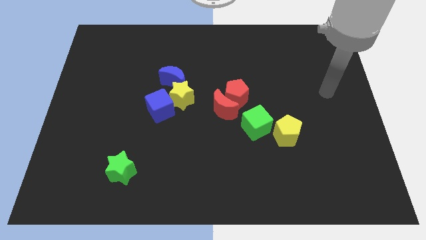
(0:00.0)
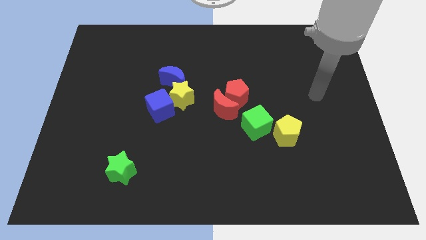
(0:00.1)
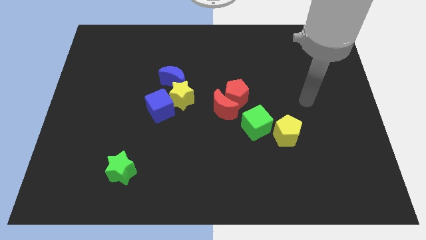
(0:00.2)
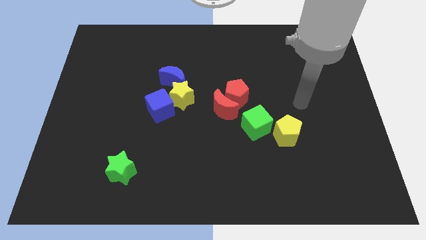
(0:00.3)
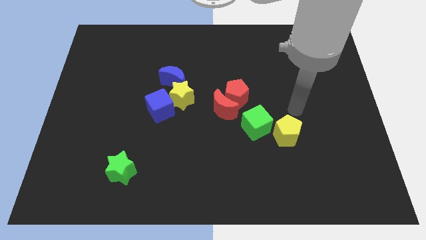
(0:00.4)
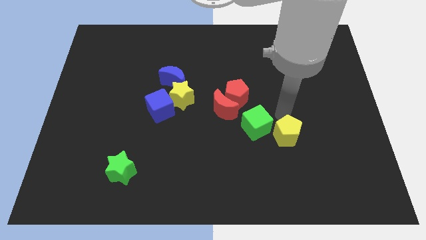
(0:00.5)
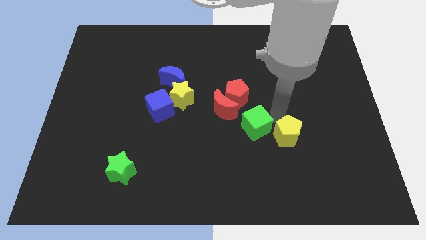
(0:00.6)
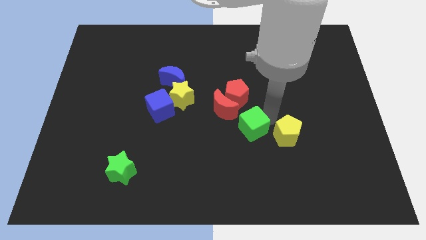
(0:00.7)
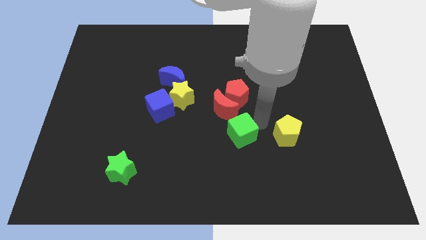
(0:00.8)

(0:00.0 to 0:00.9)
pull the yellow pentagon apart from the green cube

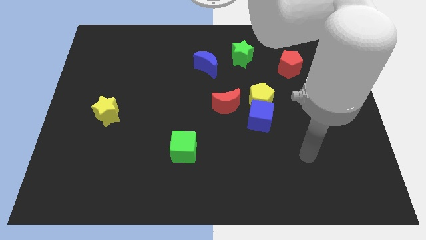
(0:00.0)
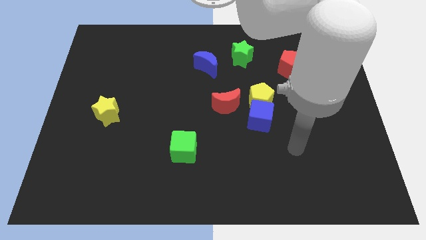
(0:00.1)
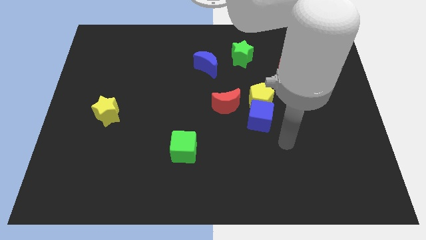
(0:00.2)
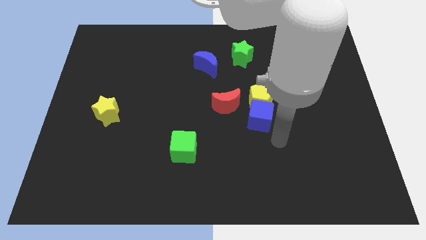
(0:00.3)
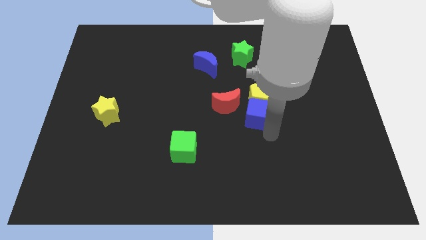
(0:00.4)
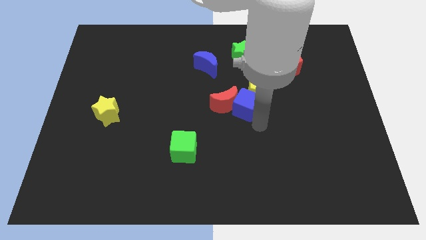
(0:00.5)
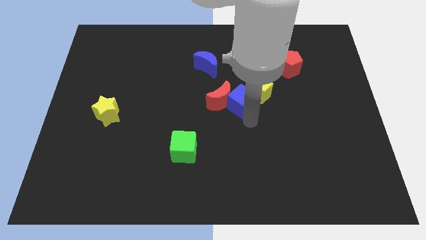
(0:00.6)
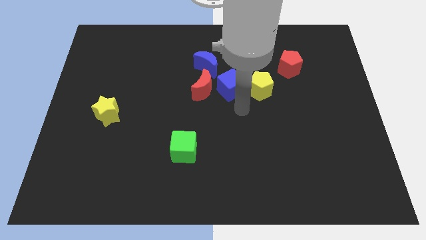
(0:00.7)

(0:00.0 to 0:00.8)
separate the yellow pentagon from the blue cube and red moon

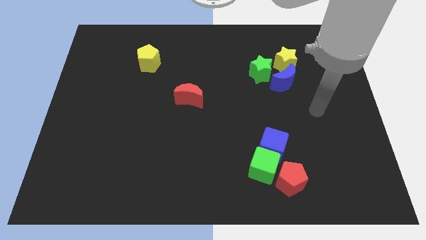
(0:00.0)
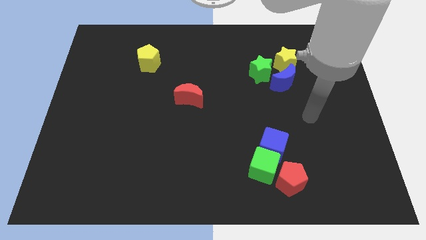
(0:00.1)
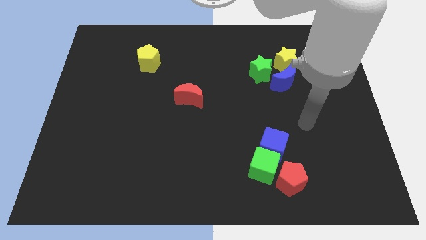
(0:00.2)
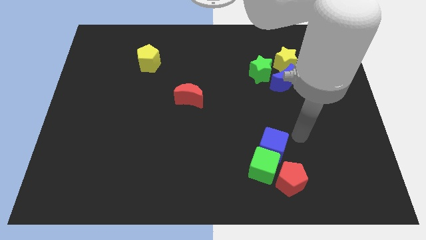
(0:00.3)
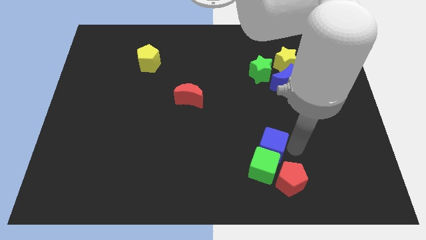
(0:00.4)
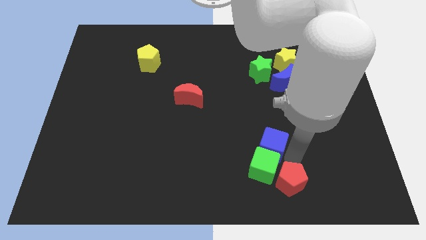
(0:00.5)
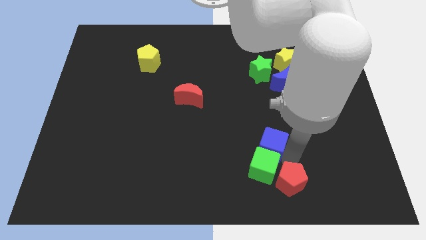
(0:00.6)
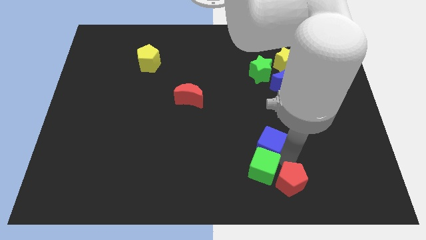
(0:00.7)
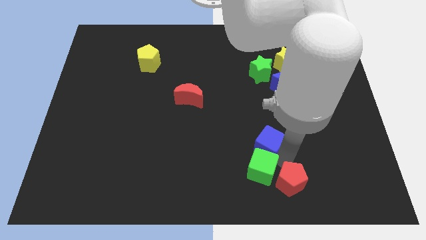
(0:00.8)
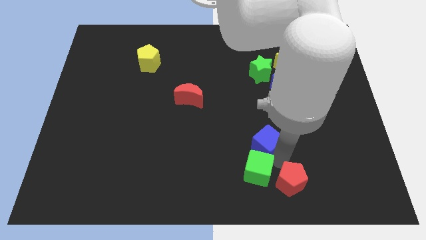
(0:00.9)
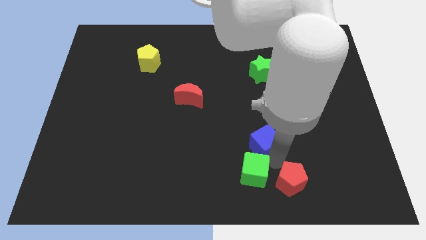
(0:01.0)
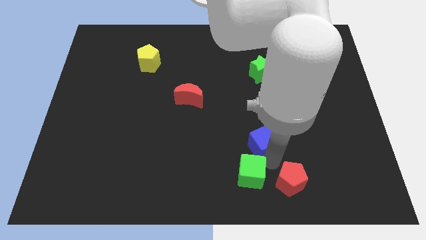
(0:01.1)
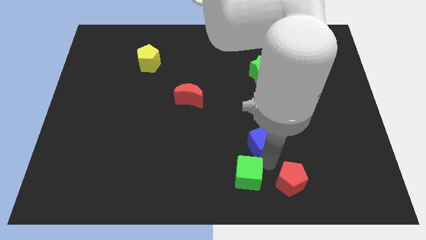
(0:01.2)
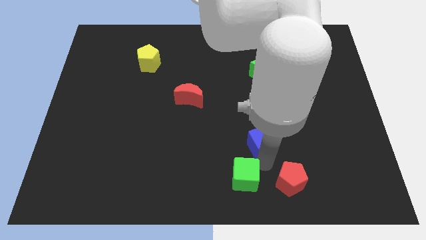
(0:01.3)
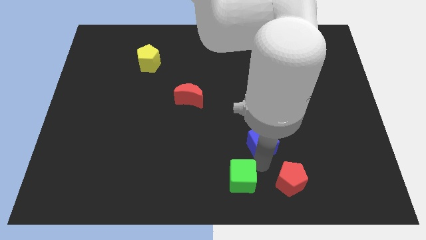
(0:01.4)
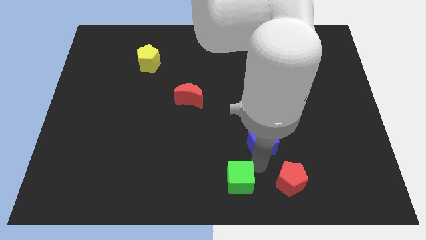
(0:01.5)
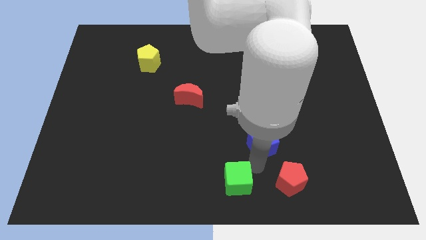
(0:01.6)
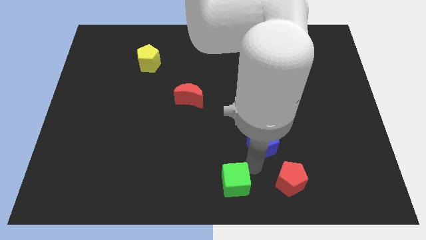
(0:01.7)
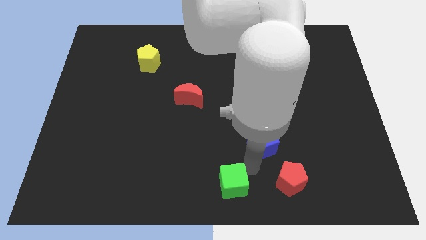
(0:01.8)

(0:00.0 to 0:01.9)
separate the green cube from the blue cube and red pentagon

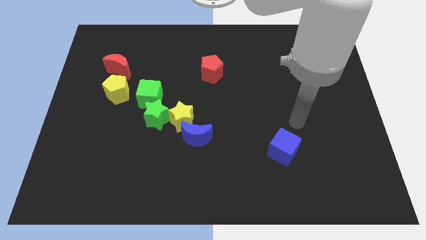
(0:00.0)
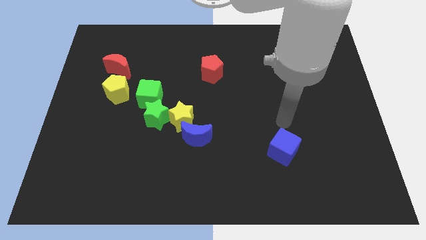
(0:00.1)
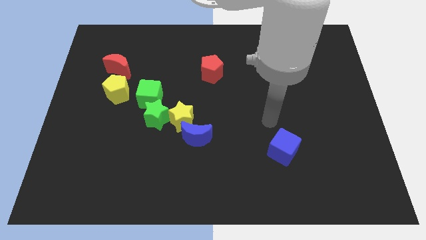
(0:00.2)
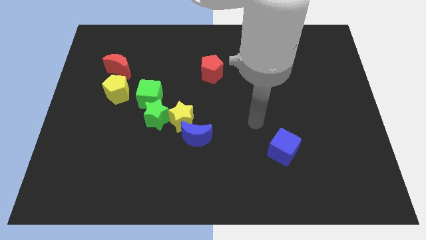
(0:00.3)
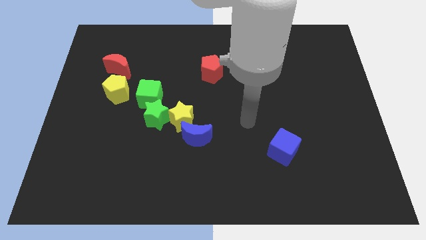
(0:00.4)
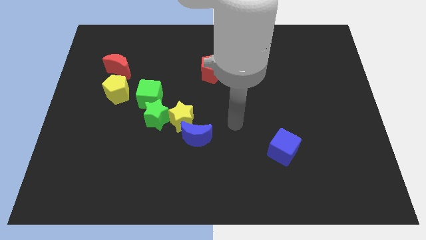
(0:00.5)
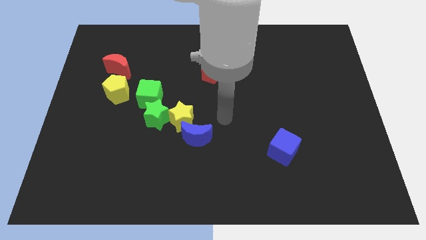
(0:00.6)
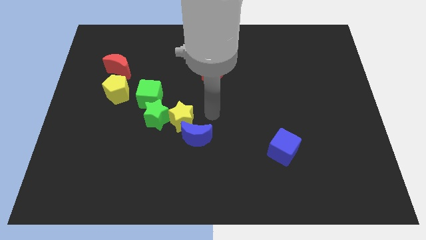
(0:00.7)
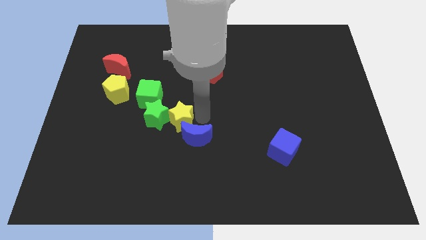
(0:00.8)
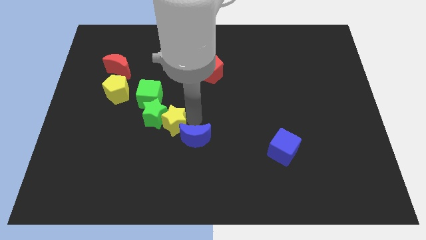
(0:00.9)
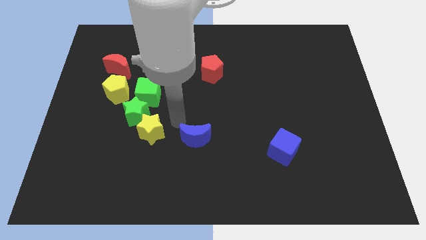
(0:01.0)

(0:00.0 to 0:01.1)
pull the blue moon apart from the yellow star

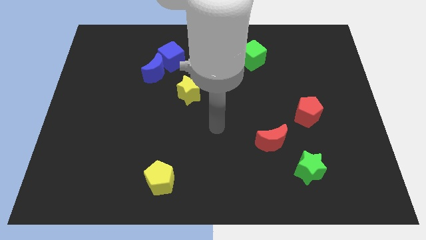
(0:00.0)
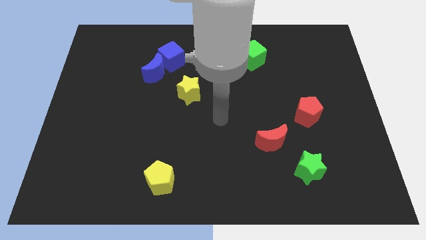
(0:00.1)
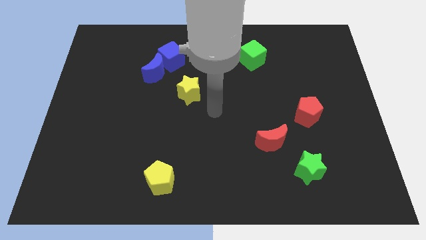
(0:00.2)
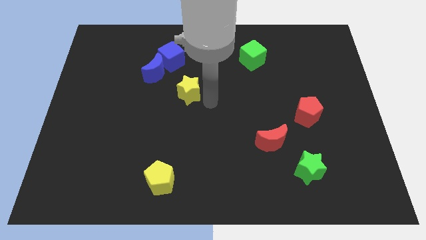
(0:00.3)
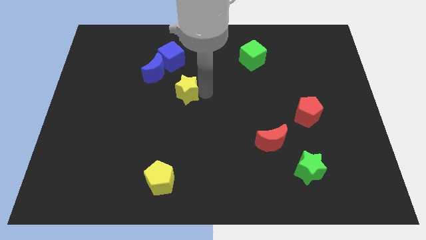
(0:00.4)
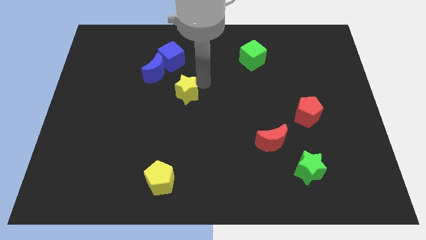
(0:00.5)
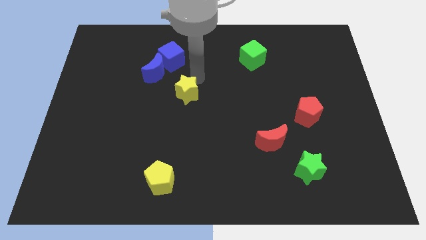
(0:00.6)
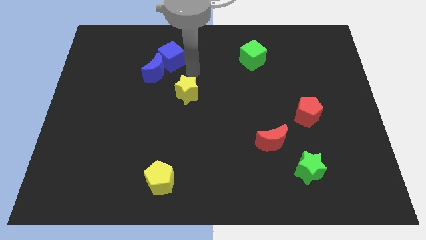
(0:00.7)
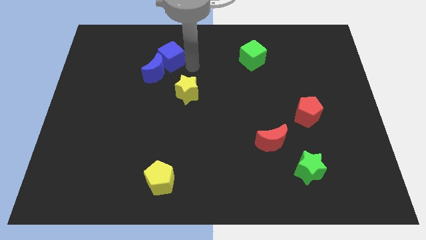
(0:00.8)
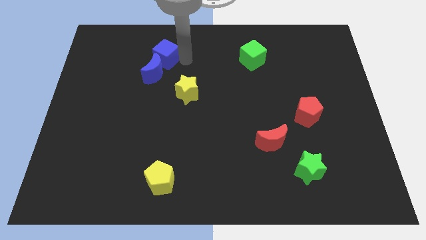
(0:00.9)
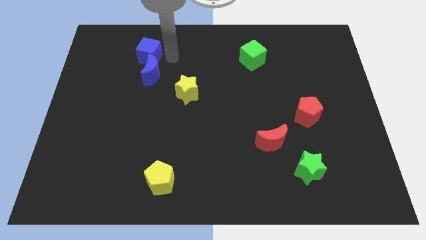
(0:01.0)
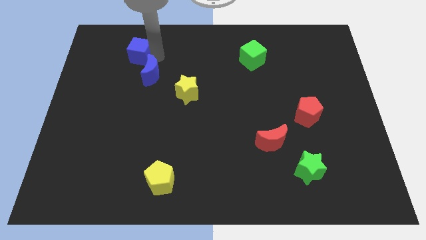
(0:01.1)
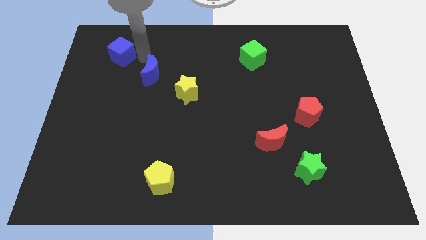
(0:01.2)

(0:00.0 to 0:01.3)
separate the blue moon from the blue cube

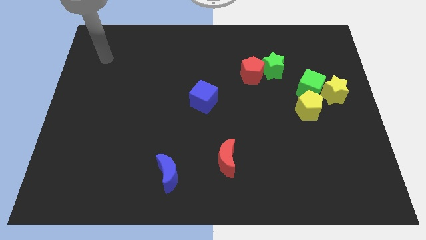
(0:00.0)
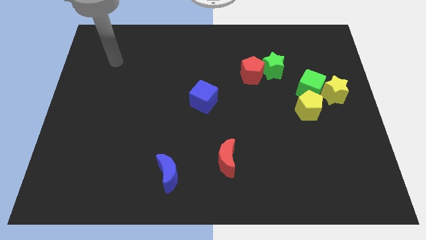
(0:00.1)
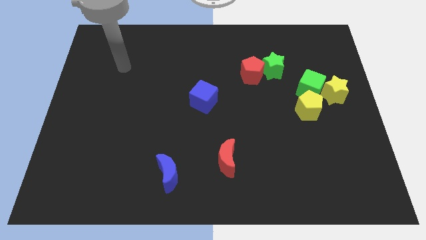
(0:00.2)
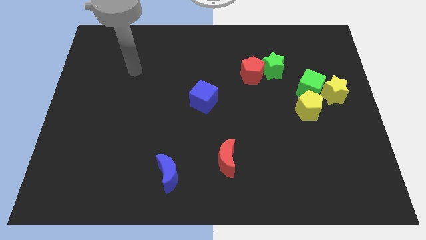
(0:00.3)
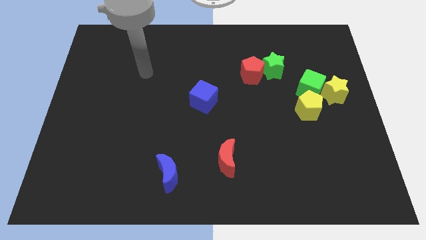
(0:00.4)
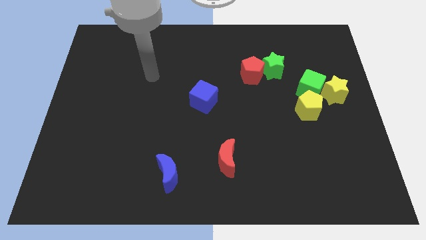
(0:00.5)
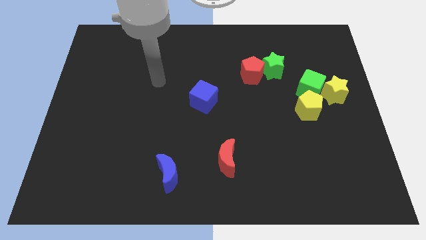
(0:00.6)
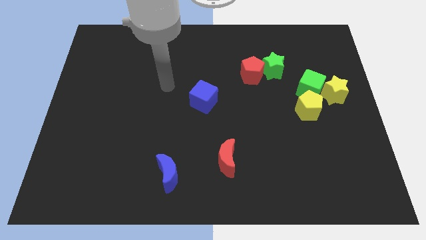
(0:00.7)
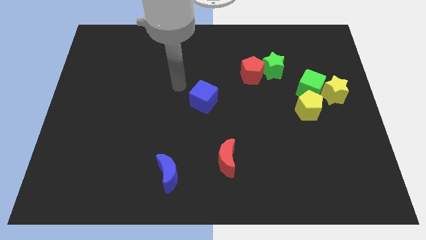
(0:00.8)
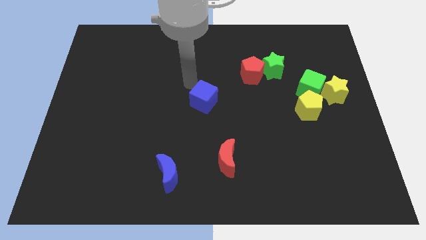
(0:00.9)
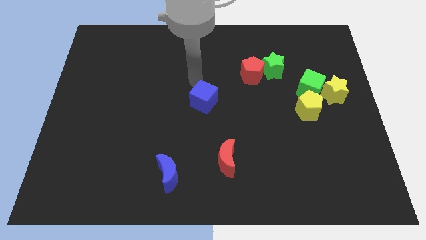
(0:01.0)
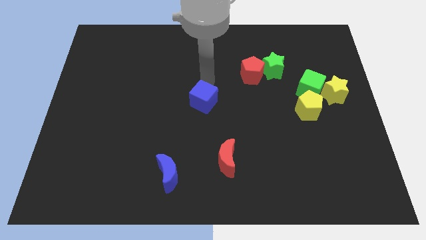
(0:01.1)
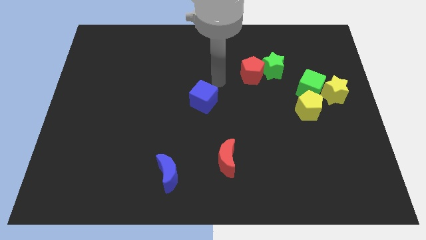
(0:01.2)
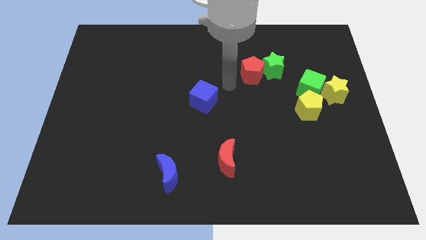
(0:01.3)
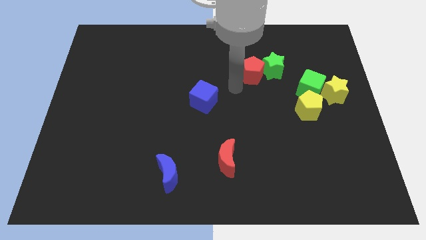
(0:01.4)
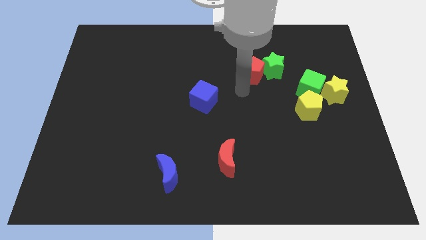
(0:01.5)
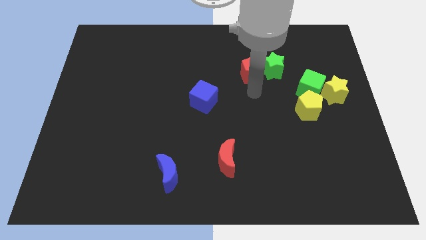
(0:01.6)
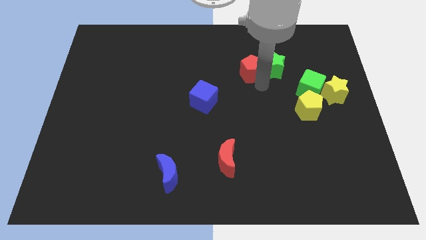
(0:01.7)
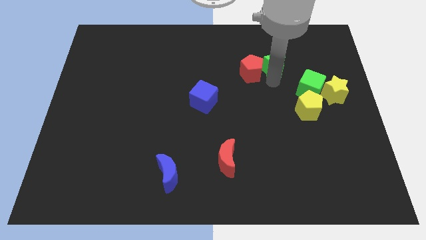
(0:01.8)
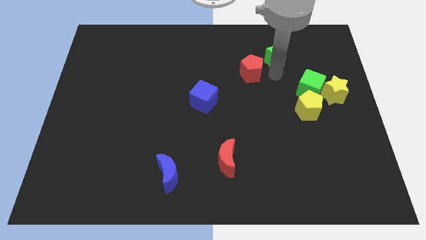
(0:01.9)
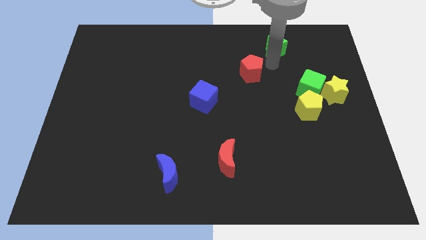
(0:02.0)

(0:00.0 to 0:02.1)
move the red pentagon away from the green star

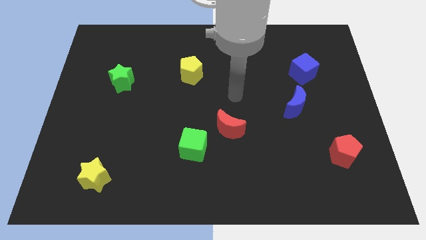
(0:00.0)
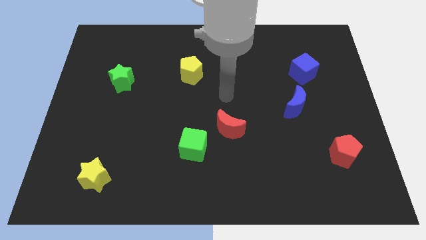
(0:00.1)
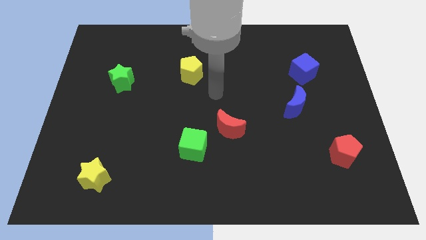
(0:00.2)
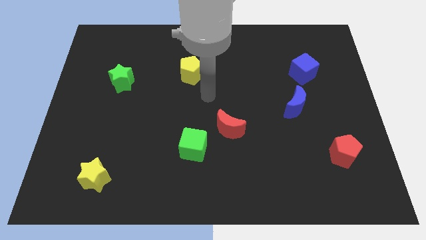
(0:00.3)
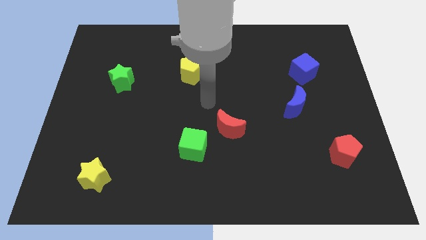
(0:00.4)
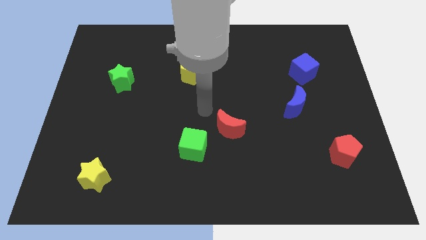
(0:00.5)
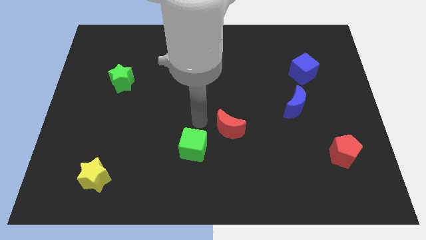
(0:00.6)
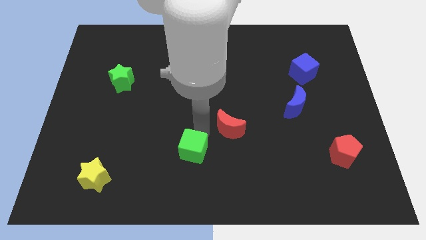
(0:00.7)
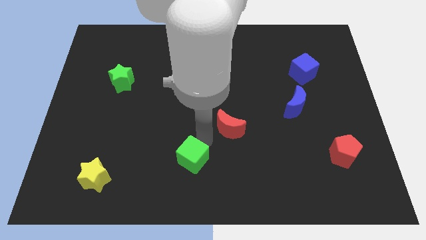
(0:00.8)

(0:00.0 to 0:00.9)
move the red moon away from the green cube

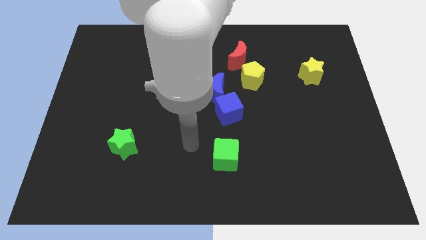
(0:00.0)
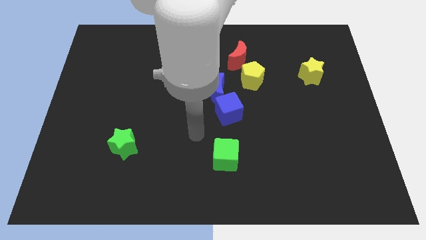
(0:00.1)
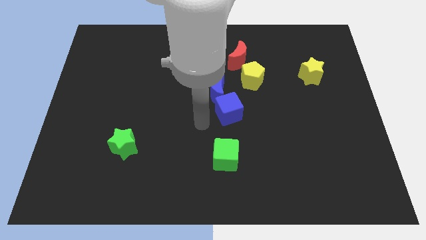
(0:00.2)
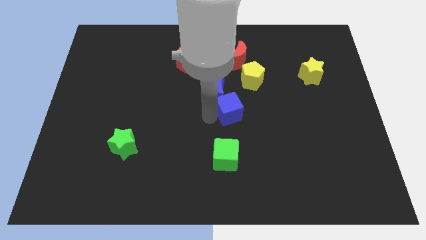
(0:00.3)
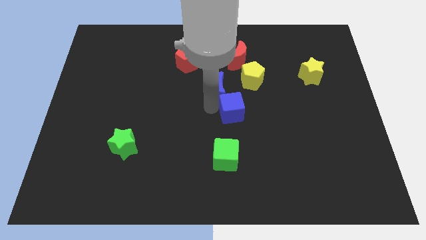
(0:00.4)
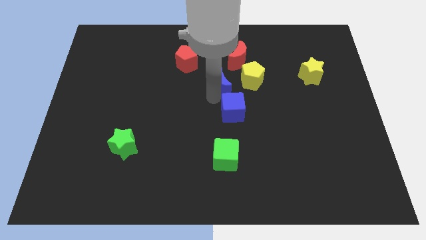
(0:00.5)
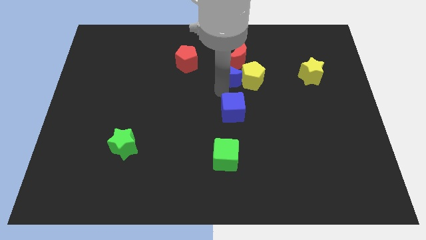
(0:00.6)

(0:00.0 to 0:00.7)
move the blue cube away from the blue moon
